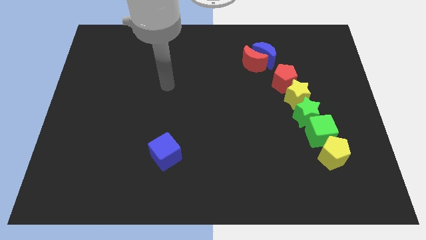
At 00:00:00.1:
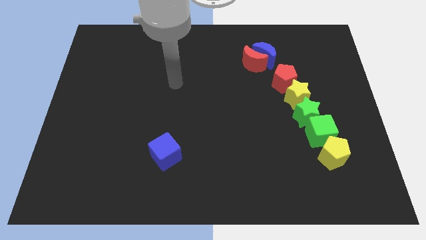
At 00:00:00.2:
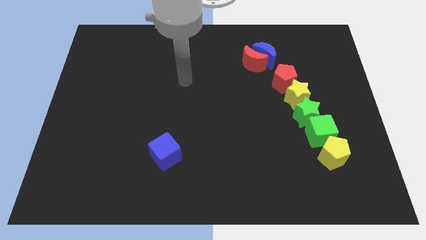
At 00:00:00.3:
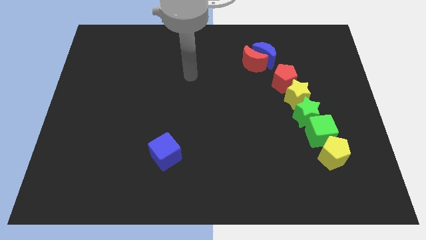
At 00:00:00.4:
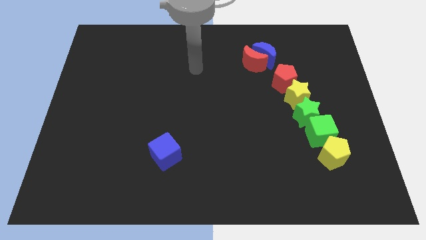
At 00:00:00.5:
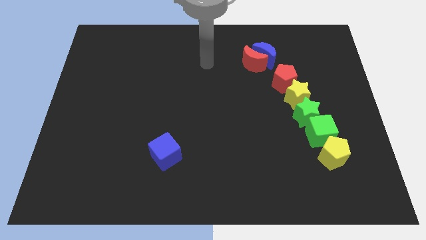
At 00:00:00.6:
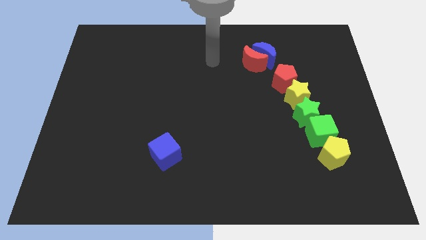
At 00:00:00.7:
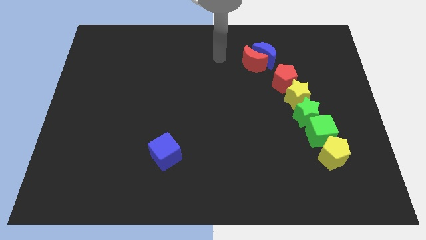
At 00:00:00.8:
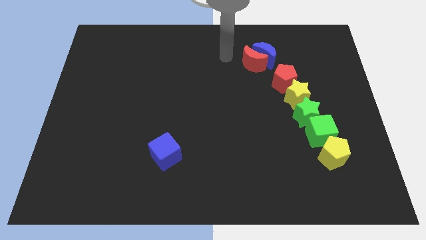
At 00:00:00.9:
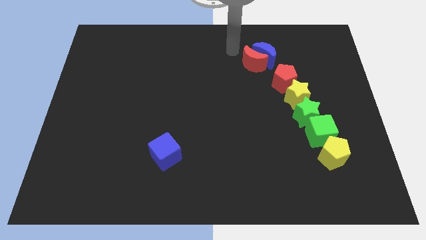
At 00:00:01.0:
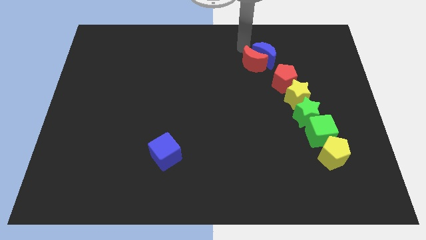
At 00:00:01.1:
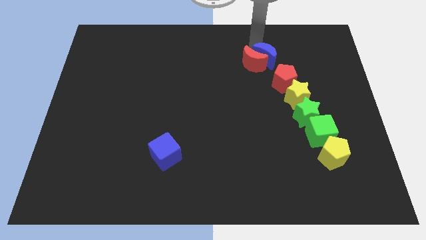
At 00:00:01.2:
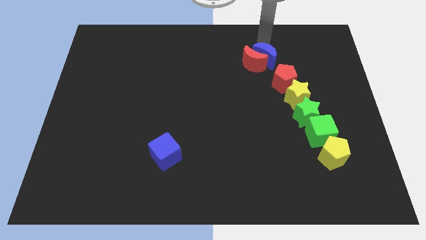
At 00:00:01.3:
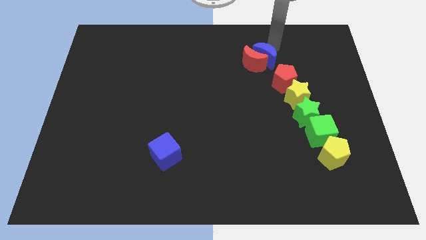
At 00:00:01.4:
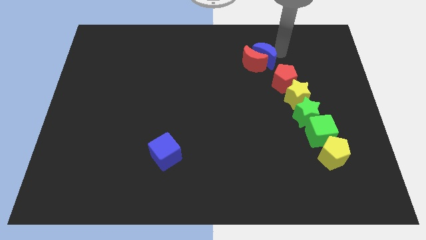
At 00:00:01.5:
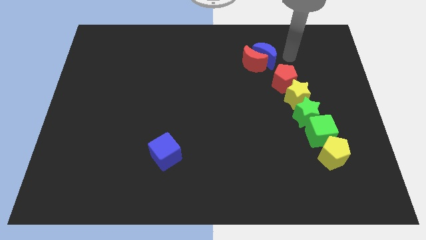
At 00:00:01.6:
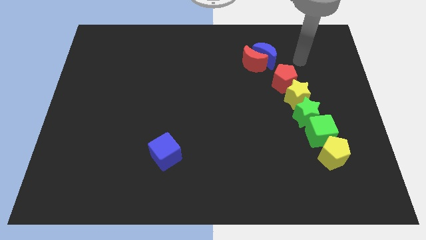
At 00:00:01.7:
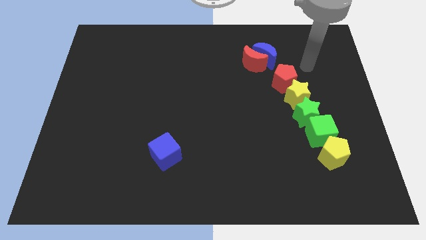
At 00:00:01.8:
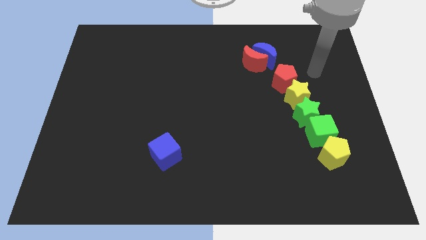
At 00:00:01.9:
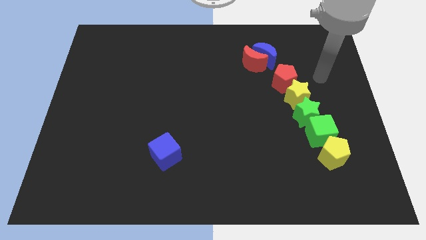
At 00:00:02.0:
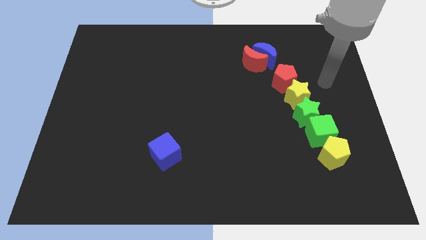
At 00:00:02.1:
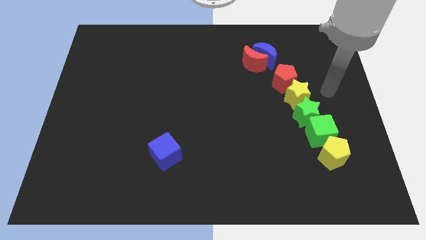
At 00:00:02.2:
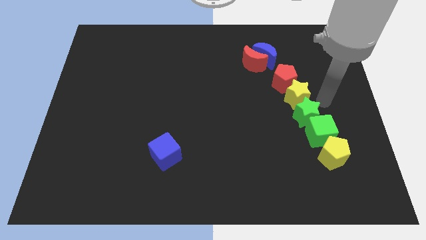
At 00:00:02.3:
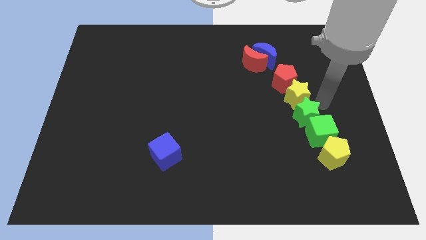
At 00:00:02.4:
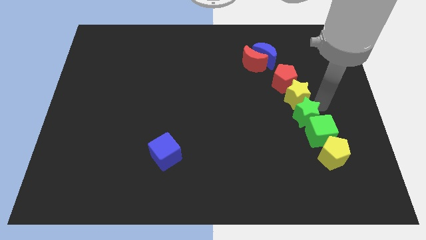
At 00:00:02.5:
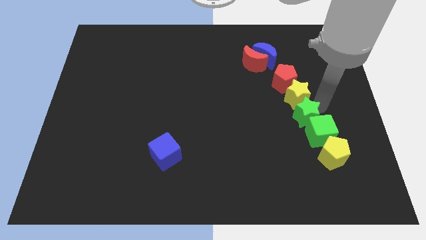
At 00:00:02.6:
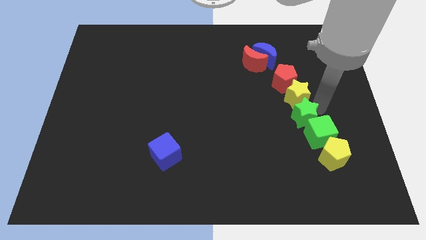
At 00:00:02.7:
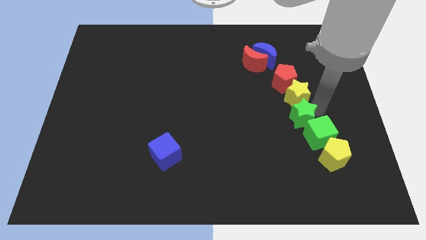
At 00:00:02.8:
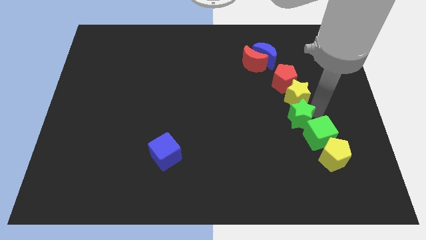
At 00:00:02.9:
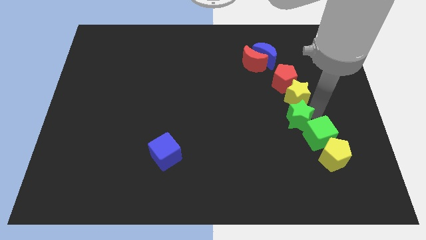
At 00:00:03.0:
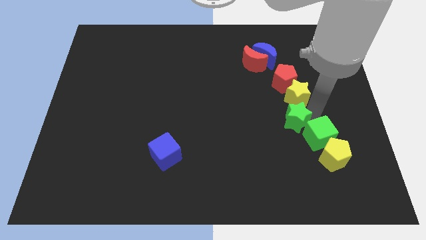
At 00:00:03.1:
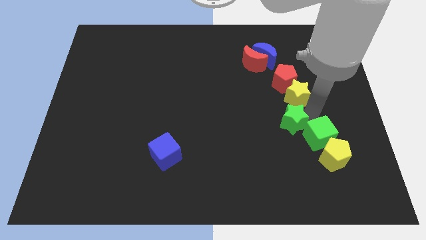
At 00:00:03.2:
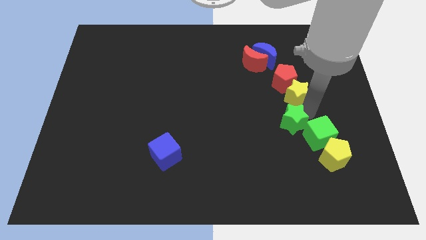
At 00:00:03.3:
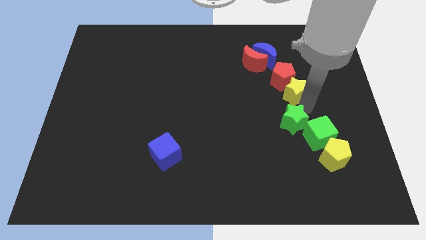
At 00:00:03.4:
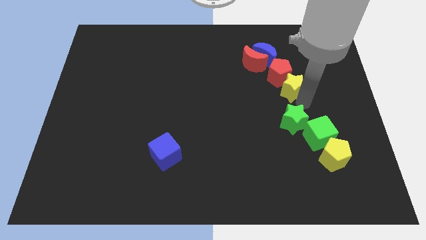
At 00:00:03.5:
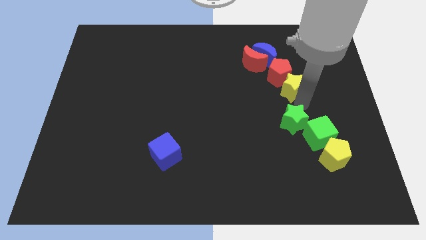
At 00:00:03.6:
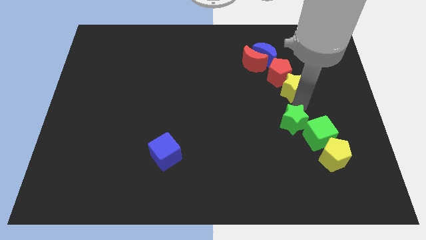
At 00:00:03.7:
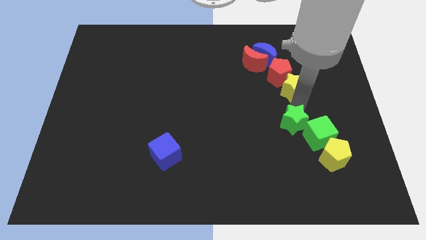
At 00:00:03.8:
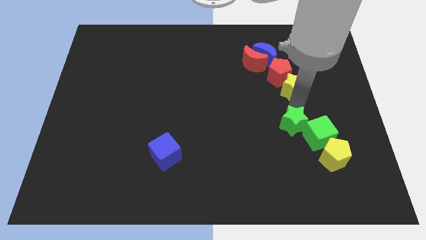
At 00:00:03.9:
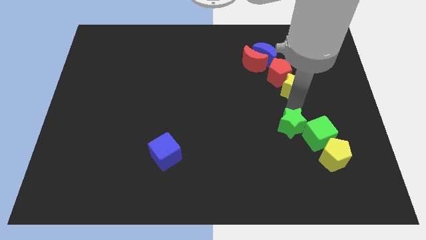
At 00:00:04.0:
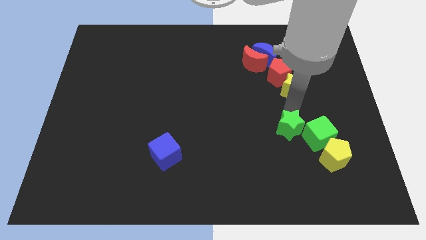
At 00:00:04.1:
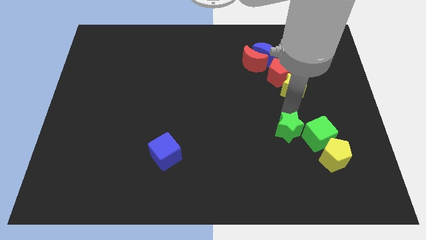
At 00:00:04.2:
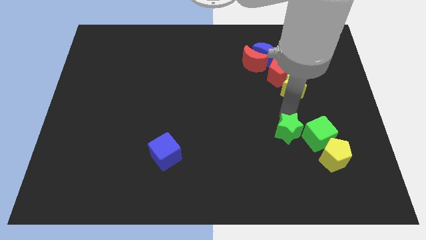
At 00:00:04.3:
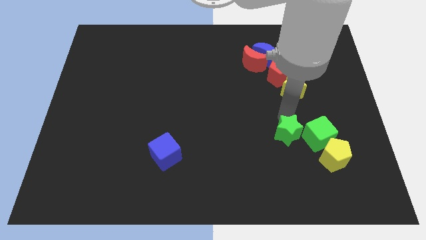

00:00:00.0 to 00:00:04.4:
push the green star slightly downwards and to the left diagonally

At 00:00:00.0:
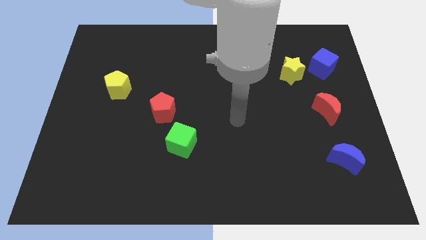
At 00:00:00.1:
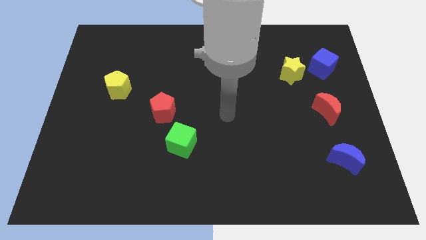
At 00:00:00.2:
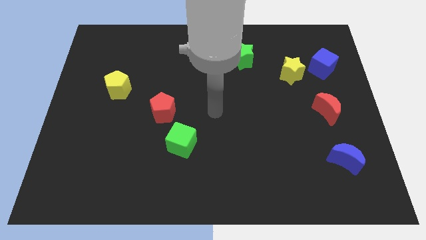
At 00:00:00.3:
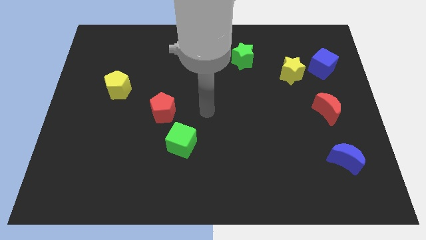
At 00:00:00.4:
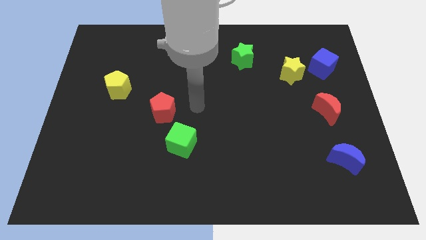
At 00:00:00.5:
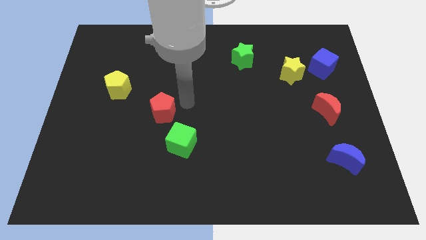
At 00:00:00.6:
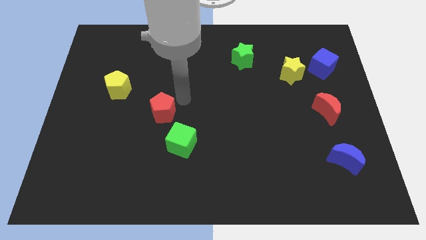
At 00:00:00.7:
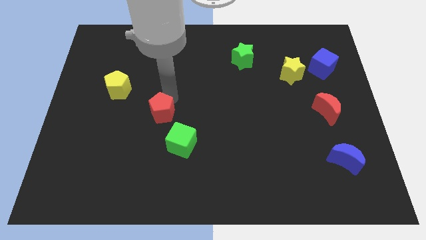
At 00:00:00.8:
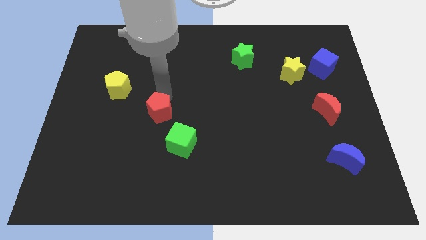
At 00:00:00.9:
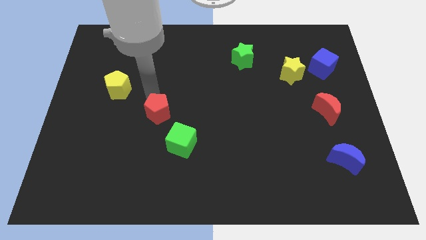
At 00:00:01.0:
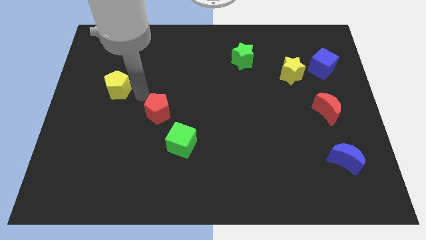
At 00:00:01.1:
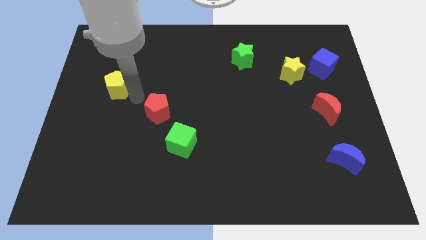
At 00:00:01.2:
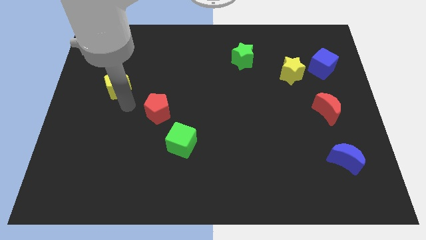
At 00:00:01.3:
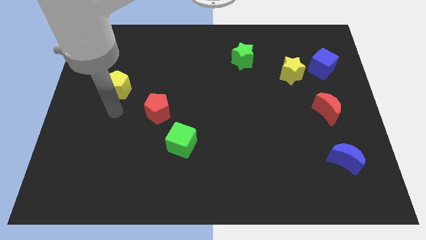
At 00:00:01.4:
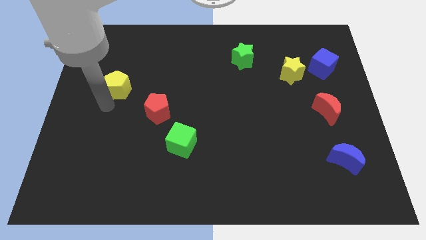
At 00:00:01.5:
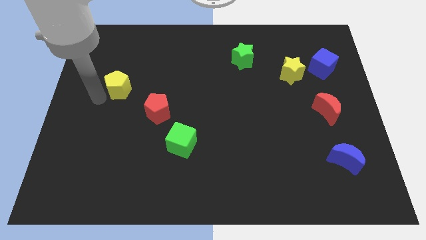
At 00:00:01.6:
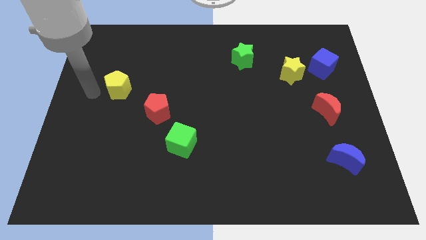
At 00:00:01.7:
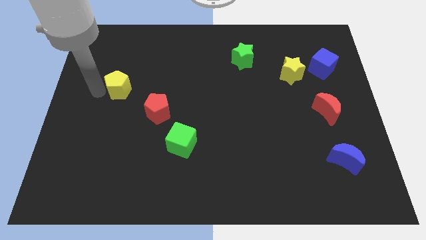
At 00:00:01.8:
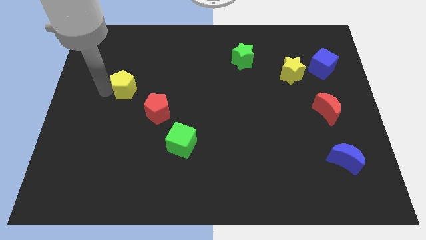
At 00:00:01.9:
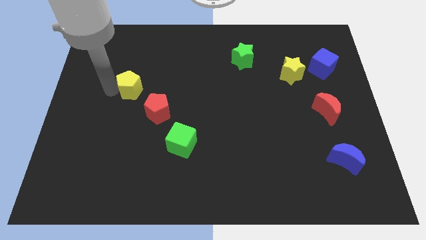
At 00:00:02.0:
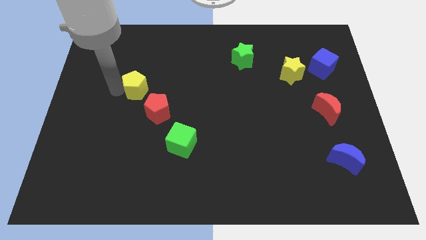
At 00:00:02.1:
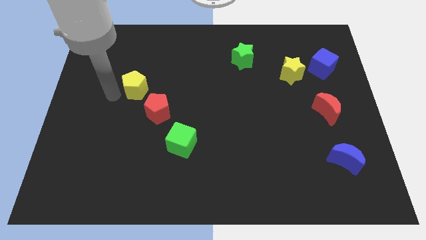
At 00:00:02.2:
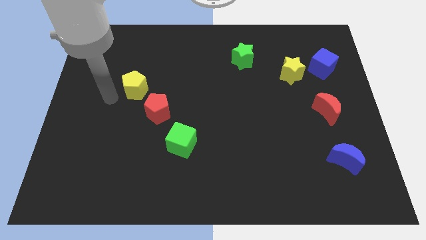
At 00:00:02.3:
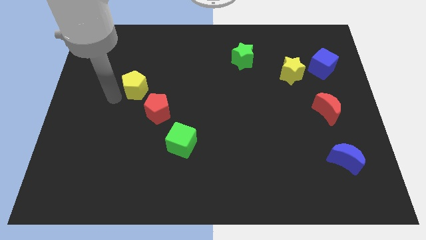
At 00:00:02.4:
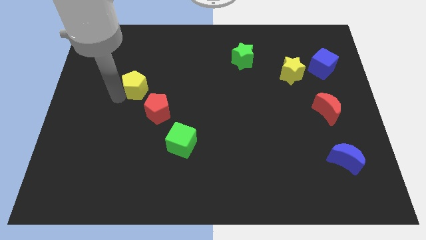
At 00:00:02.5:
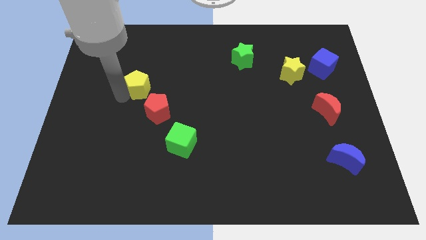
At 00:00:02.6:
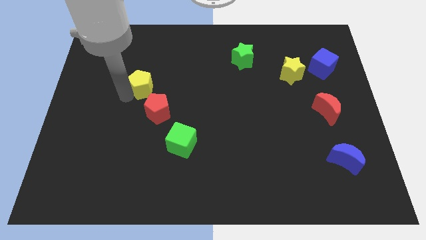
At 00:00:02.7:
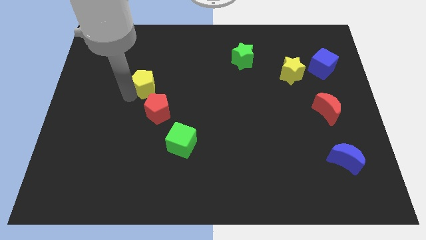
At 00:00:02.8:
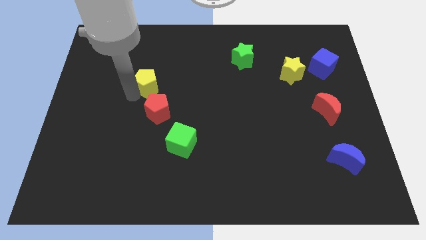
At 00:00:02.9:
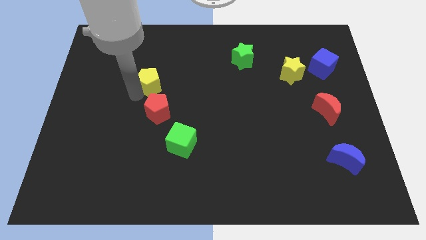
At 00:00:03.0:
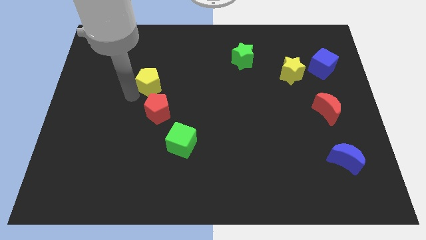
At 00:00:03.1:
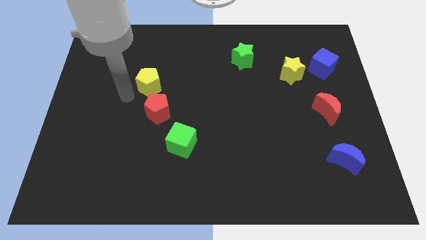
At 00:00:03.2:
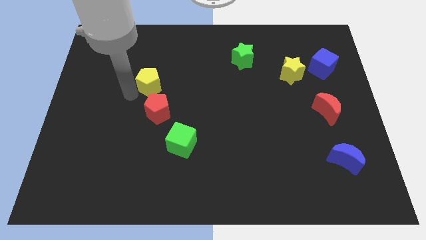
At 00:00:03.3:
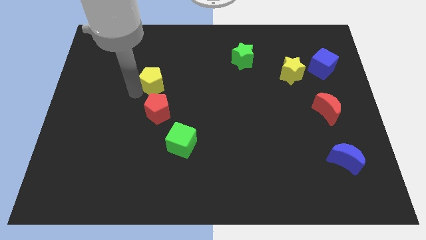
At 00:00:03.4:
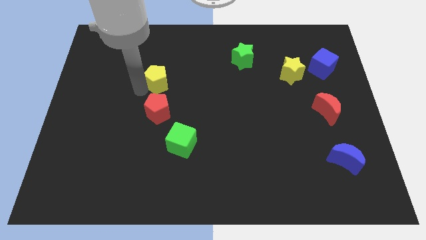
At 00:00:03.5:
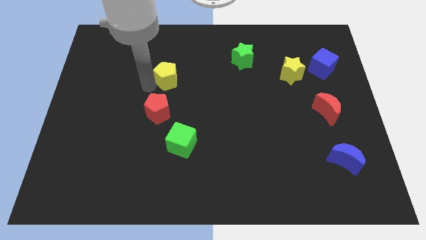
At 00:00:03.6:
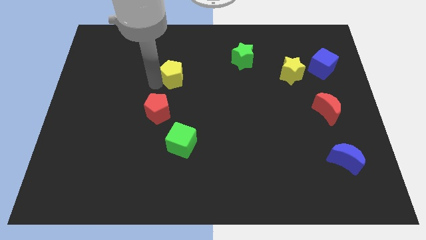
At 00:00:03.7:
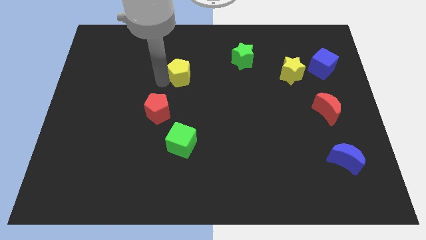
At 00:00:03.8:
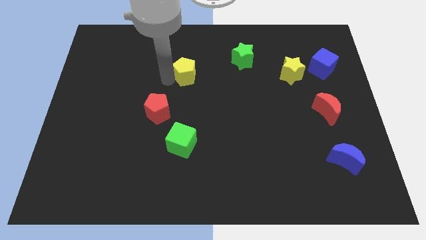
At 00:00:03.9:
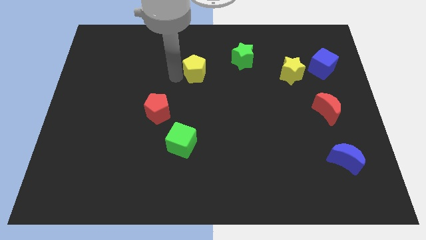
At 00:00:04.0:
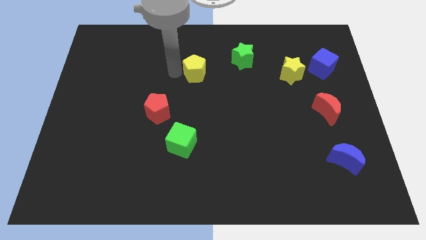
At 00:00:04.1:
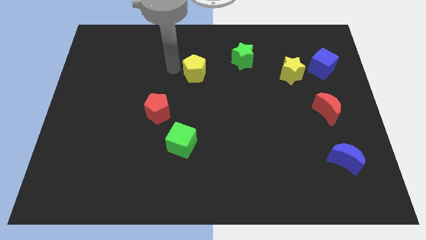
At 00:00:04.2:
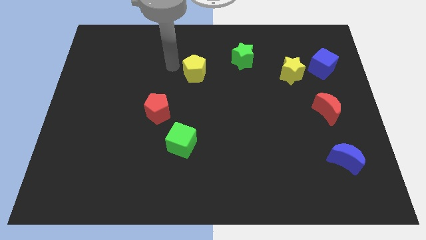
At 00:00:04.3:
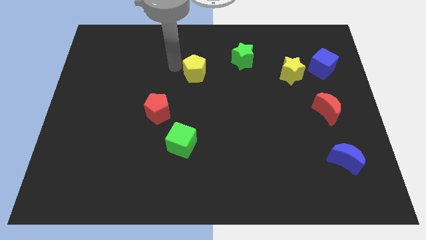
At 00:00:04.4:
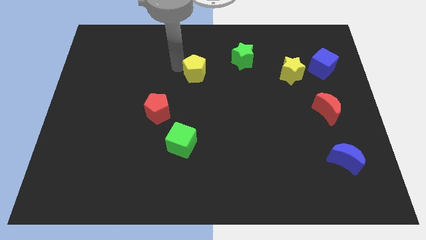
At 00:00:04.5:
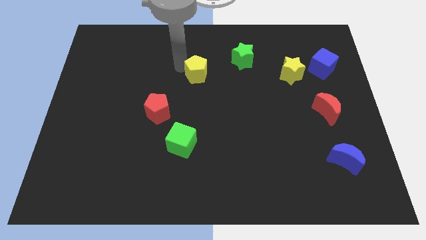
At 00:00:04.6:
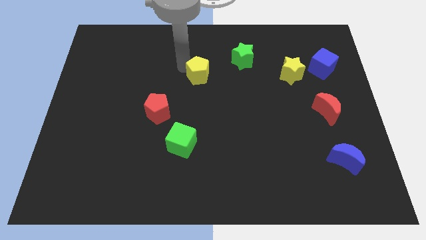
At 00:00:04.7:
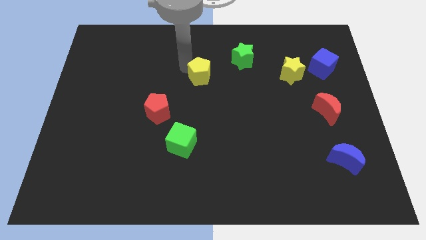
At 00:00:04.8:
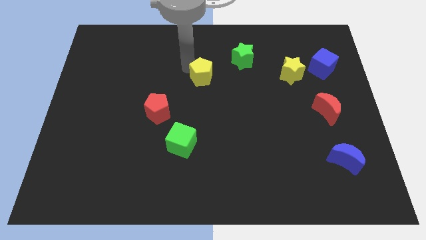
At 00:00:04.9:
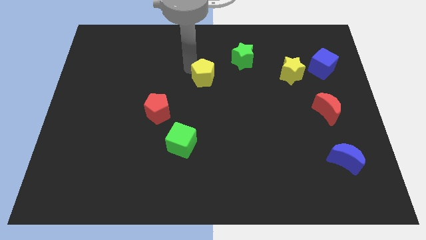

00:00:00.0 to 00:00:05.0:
slide the yellow pentagon to the right
